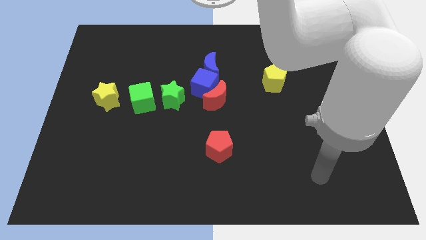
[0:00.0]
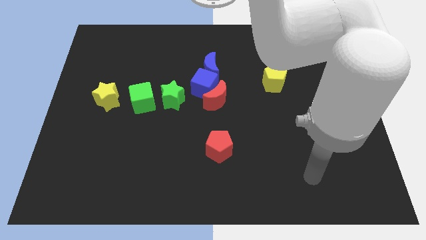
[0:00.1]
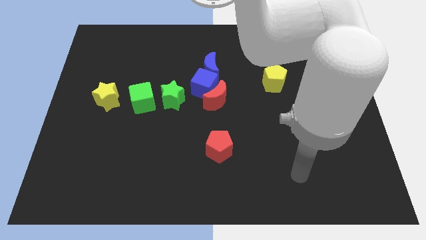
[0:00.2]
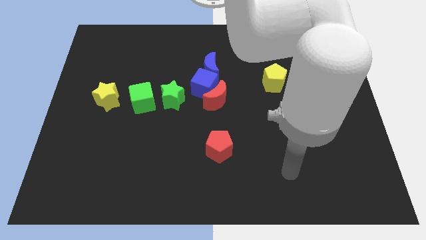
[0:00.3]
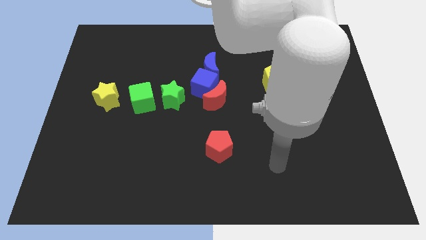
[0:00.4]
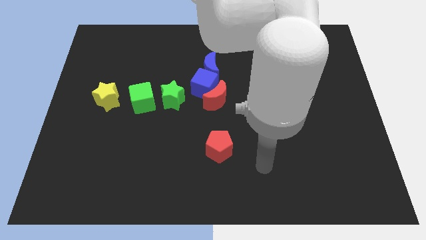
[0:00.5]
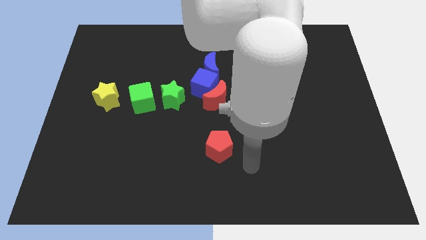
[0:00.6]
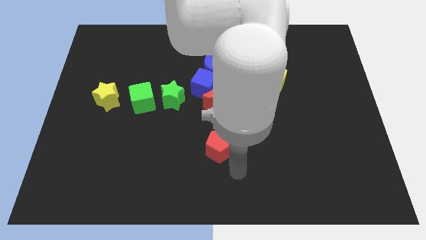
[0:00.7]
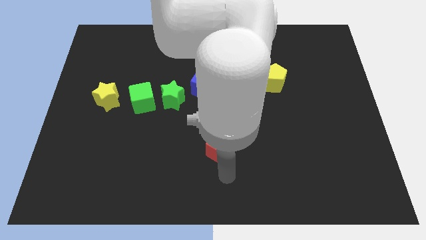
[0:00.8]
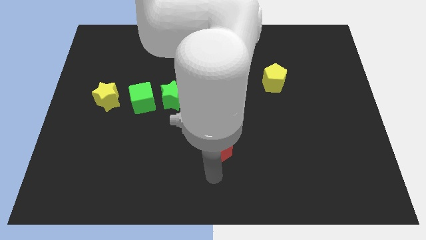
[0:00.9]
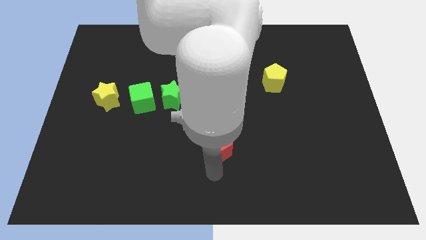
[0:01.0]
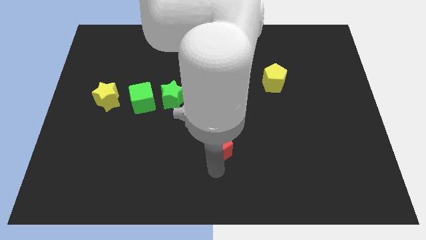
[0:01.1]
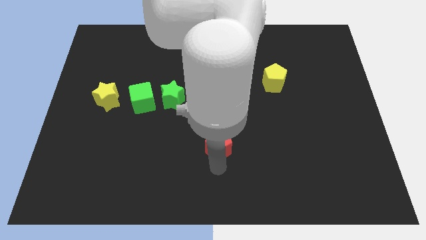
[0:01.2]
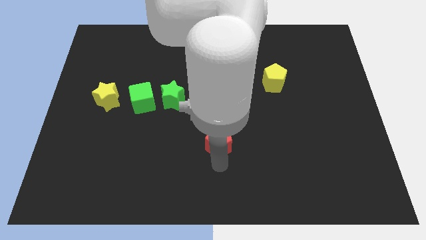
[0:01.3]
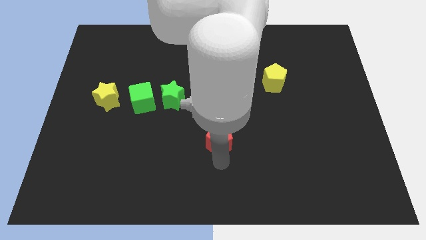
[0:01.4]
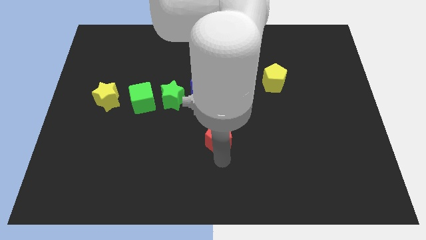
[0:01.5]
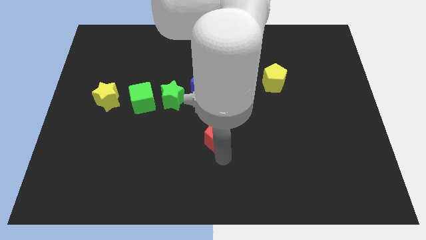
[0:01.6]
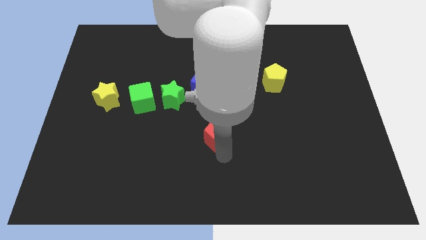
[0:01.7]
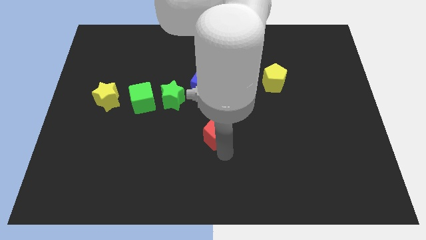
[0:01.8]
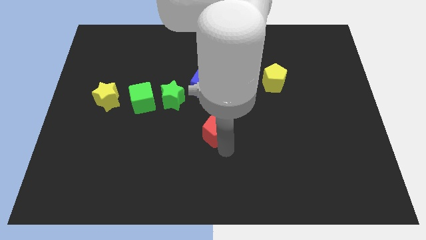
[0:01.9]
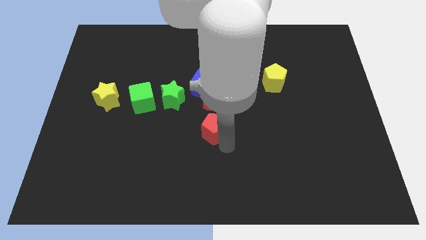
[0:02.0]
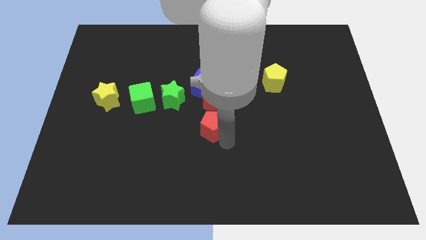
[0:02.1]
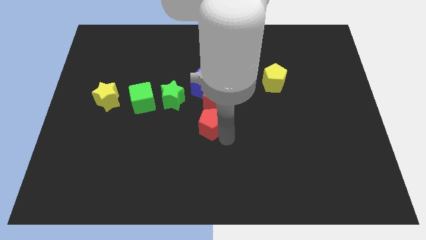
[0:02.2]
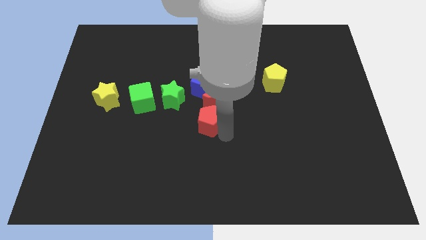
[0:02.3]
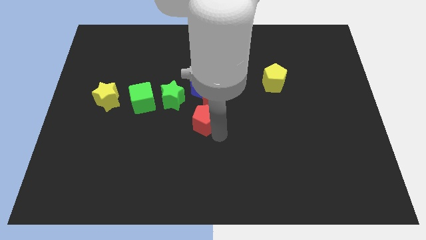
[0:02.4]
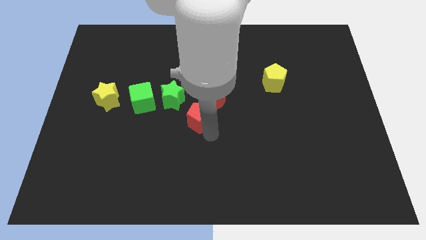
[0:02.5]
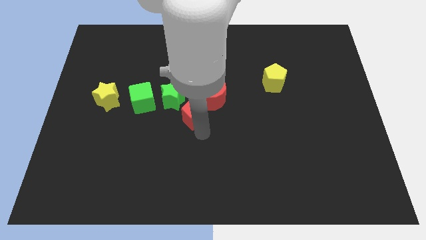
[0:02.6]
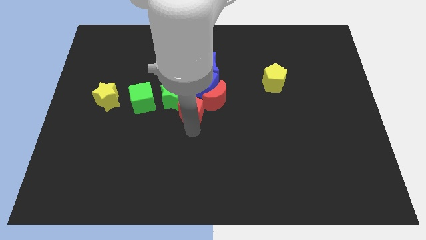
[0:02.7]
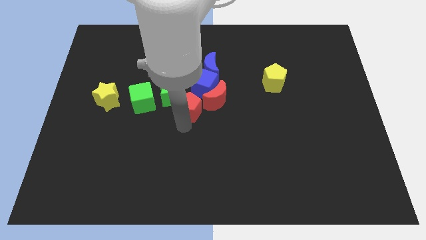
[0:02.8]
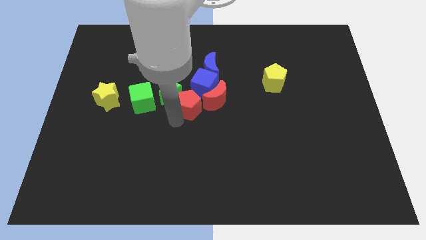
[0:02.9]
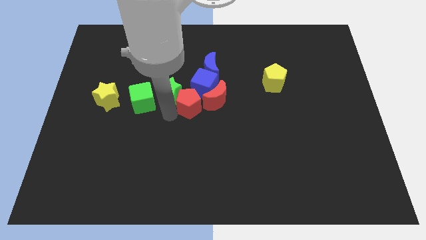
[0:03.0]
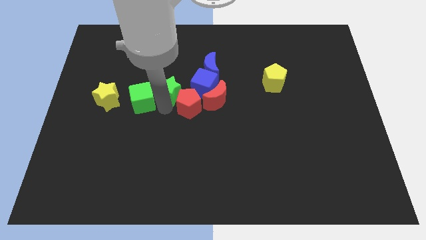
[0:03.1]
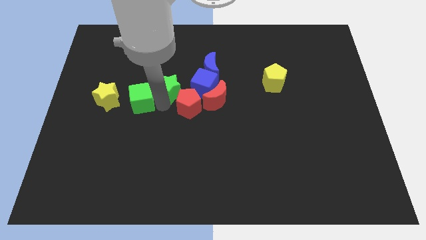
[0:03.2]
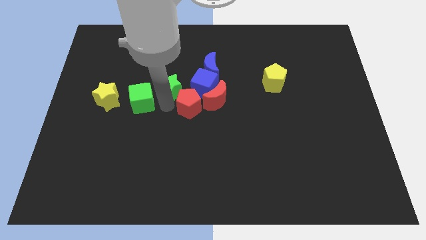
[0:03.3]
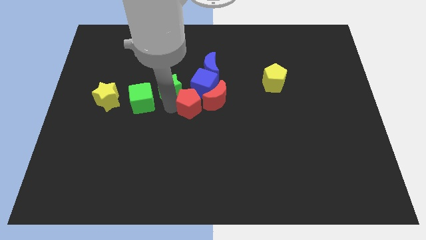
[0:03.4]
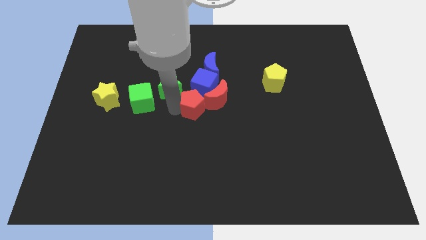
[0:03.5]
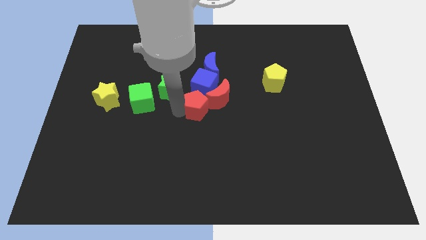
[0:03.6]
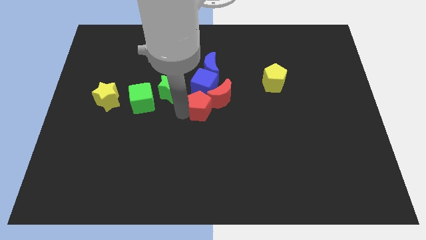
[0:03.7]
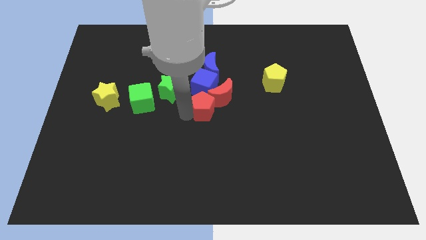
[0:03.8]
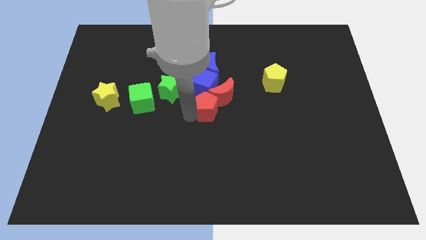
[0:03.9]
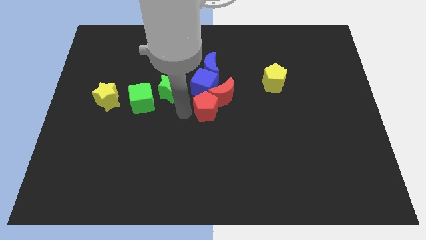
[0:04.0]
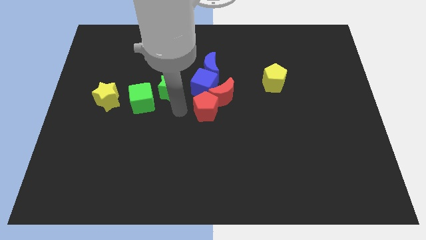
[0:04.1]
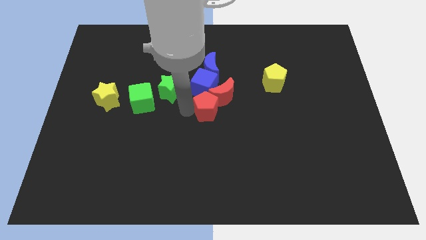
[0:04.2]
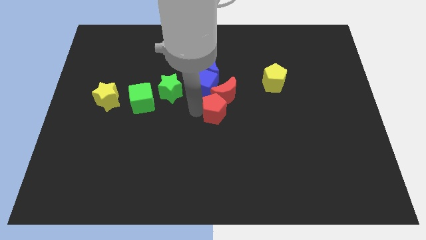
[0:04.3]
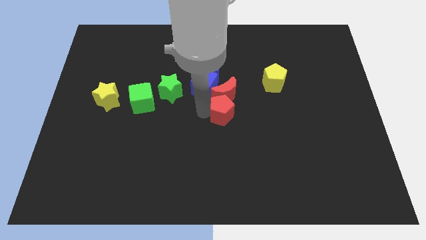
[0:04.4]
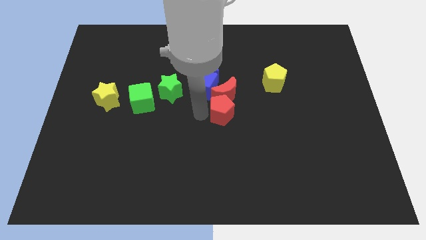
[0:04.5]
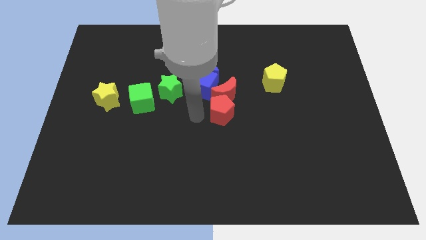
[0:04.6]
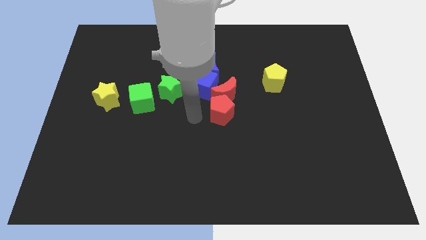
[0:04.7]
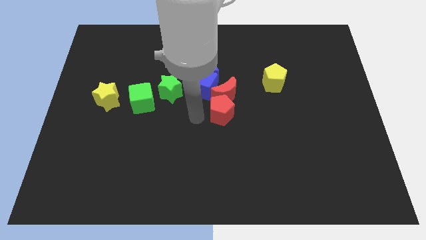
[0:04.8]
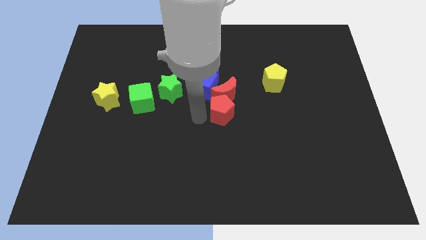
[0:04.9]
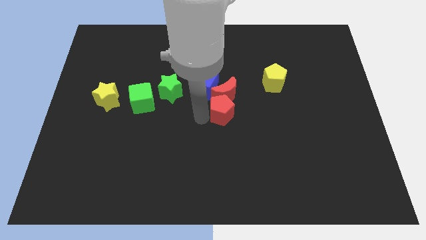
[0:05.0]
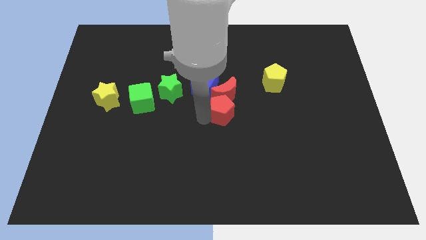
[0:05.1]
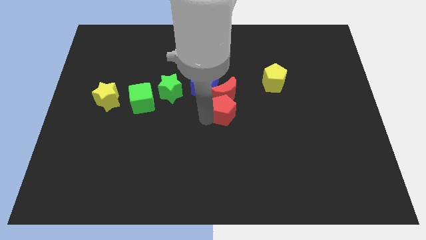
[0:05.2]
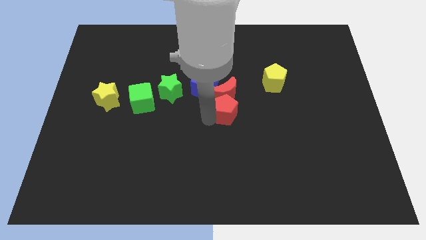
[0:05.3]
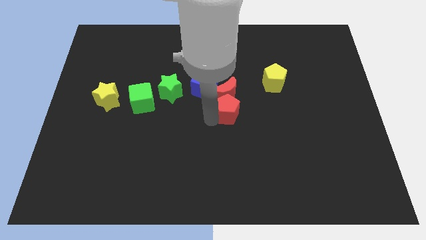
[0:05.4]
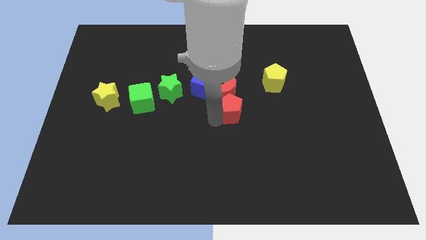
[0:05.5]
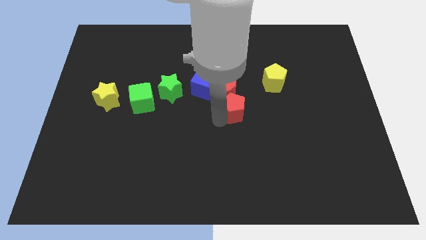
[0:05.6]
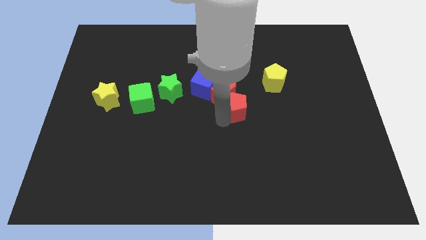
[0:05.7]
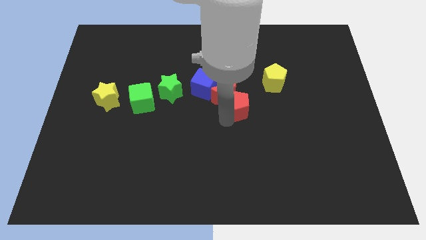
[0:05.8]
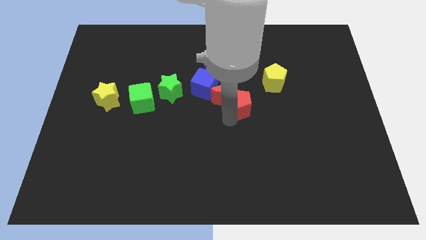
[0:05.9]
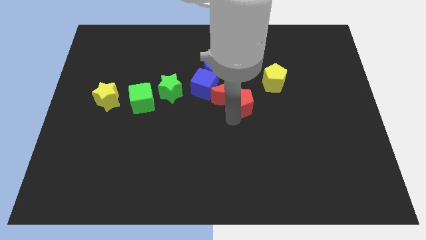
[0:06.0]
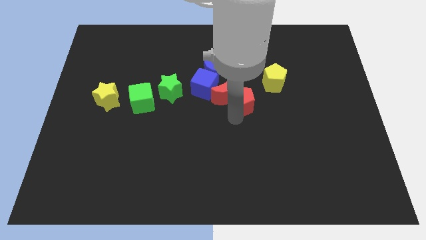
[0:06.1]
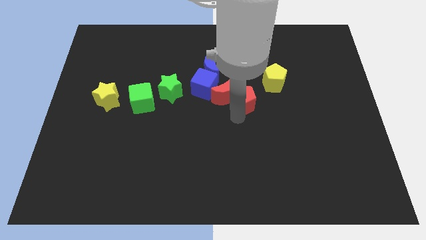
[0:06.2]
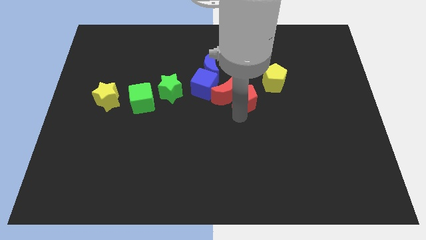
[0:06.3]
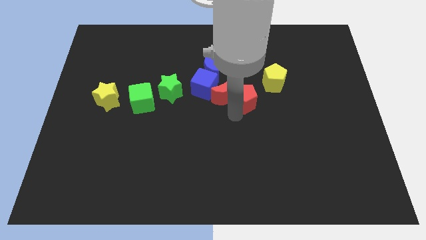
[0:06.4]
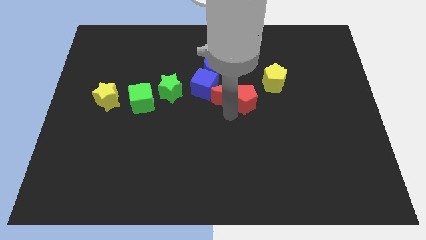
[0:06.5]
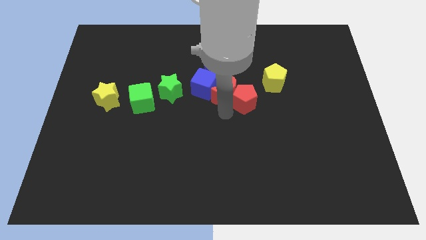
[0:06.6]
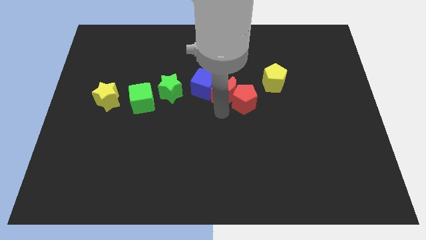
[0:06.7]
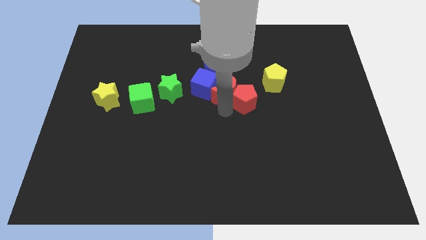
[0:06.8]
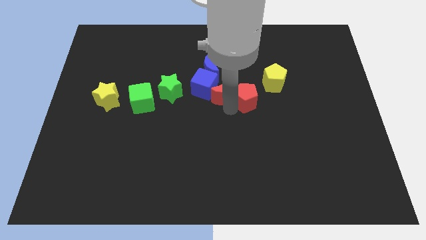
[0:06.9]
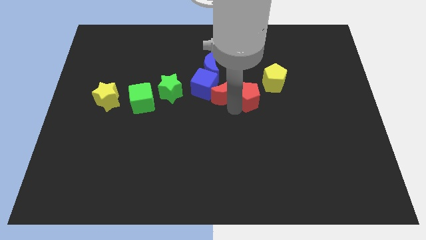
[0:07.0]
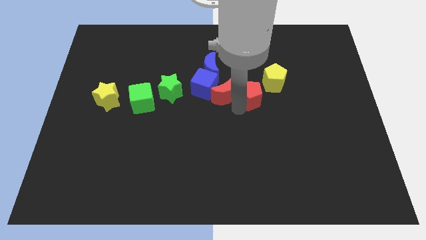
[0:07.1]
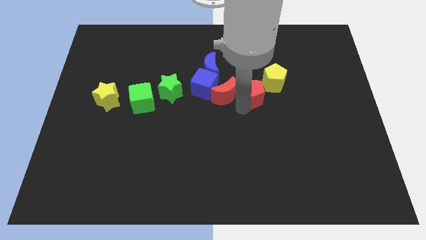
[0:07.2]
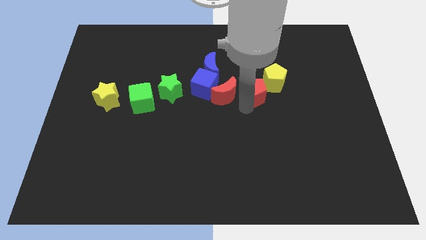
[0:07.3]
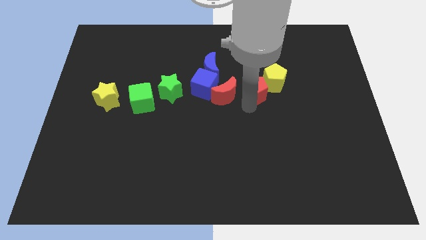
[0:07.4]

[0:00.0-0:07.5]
put the red pentagon next to the yellow pentagon
